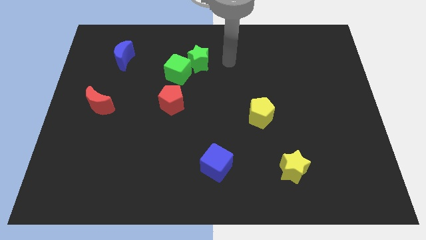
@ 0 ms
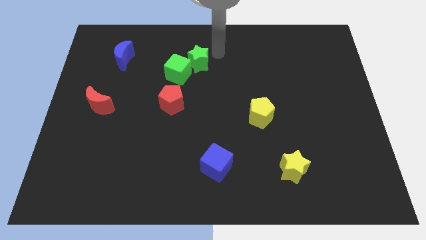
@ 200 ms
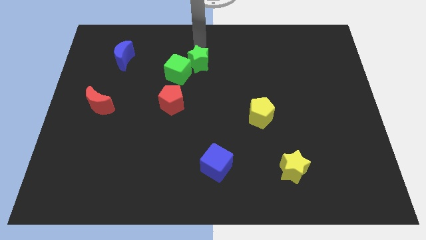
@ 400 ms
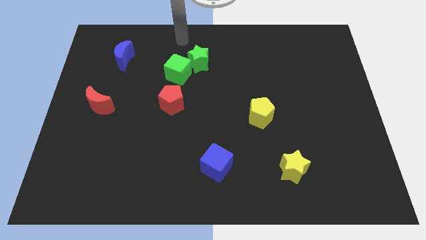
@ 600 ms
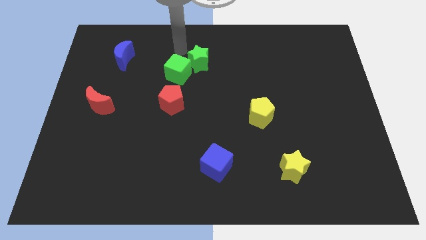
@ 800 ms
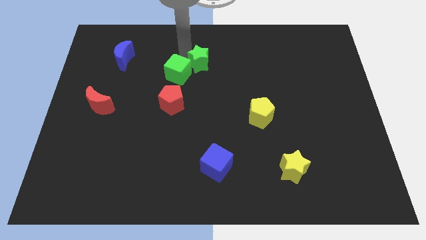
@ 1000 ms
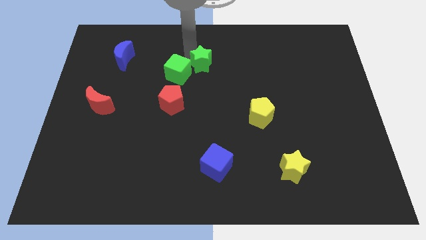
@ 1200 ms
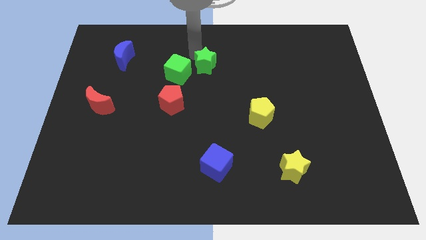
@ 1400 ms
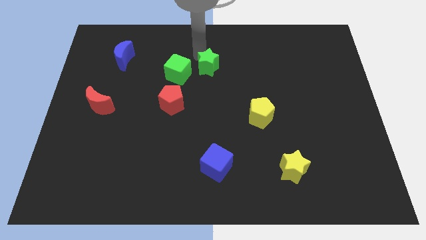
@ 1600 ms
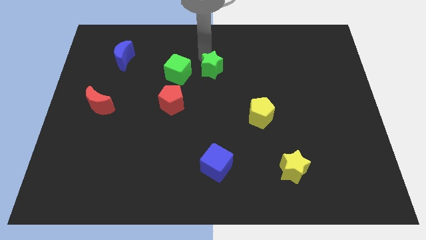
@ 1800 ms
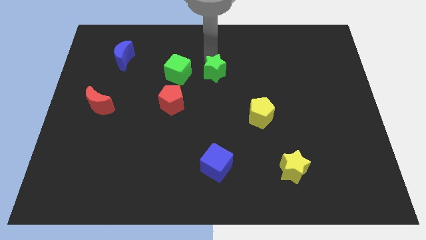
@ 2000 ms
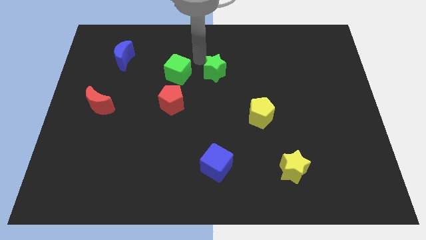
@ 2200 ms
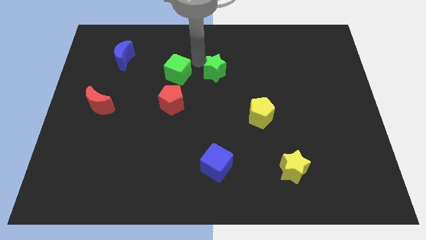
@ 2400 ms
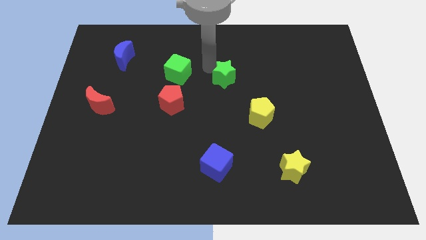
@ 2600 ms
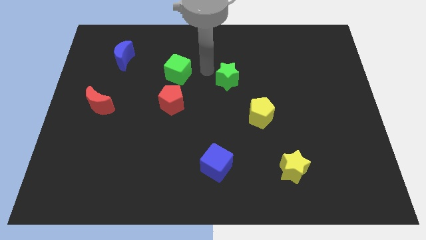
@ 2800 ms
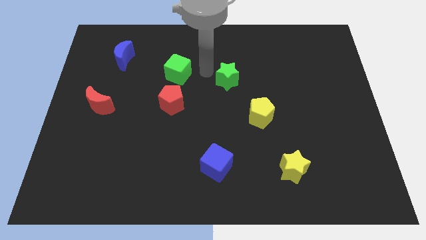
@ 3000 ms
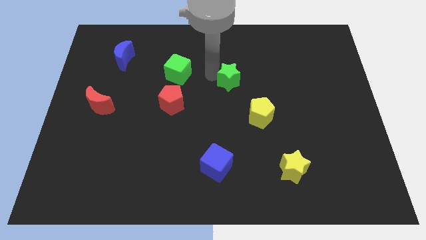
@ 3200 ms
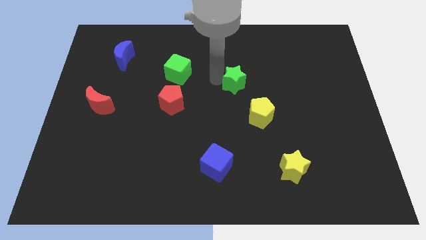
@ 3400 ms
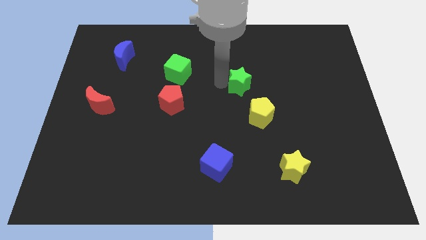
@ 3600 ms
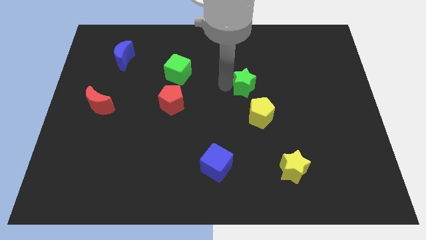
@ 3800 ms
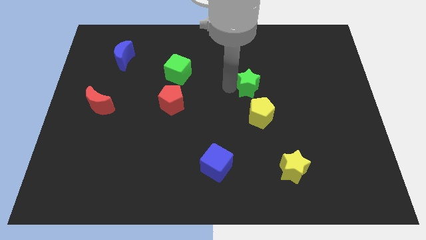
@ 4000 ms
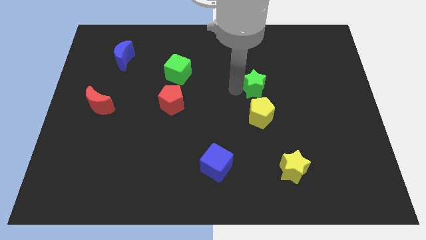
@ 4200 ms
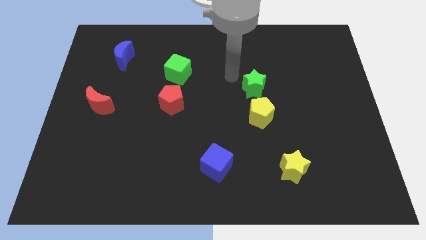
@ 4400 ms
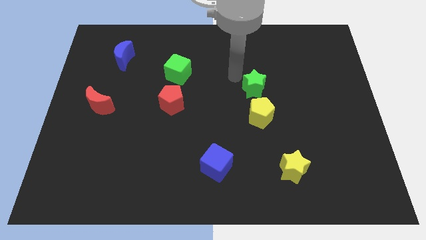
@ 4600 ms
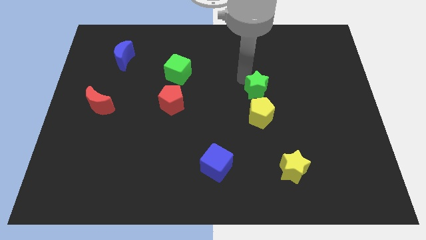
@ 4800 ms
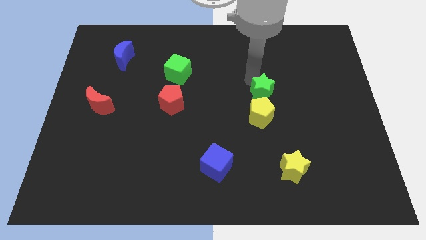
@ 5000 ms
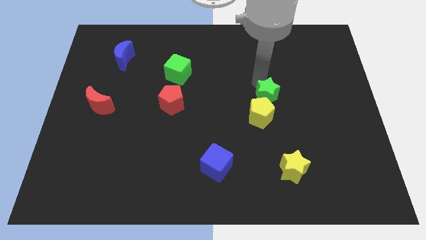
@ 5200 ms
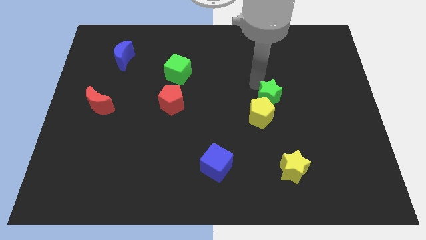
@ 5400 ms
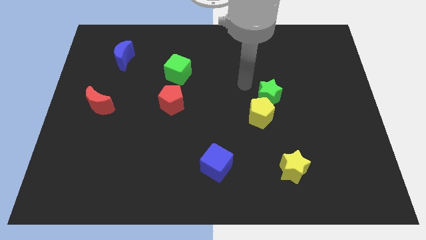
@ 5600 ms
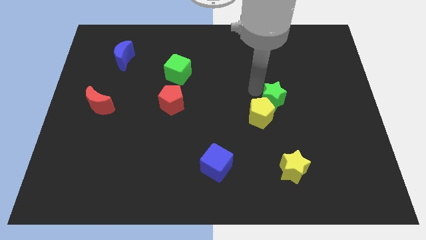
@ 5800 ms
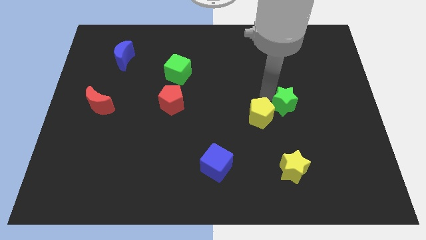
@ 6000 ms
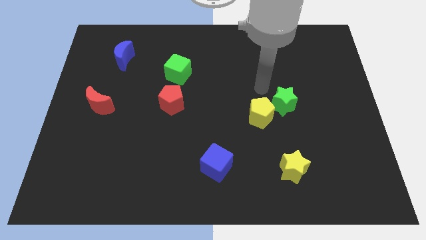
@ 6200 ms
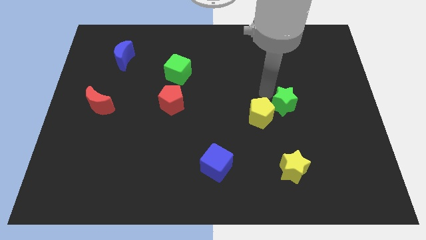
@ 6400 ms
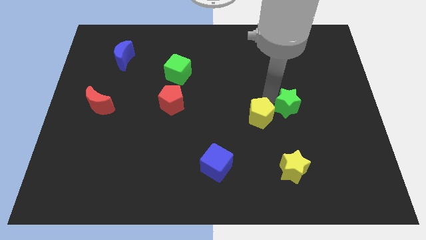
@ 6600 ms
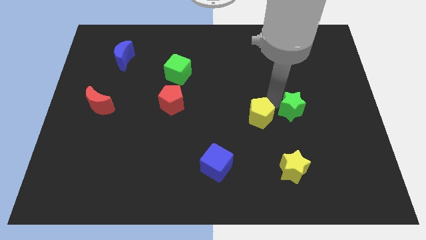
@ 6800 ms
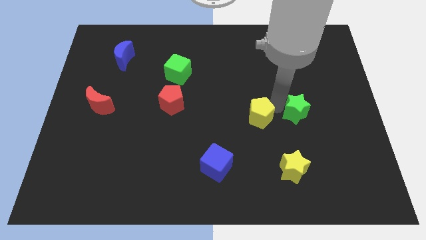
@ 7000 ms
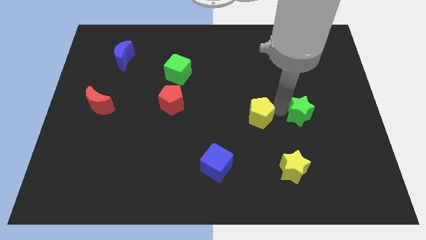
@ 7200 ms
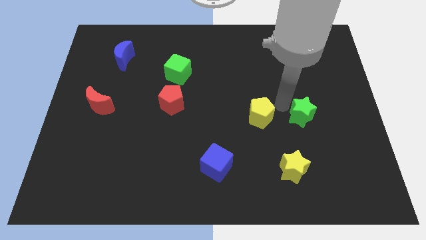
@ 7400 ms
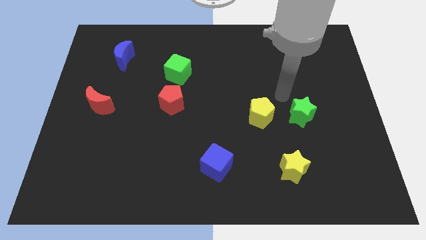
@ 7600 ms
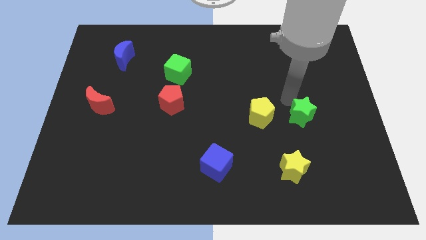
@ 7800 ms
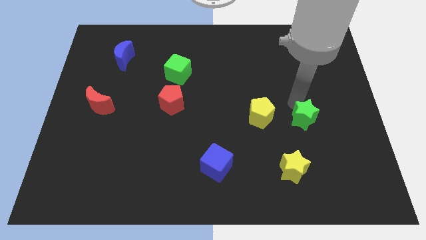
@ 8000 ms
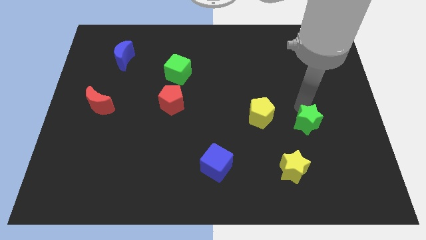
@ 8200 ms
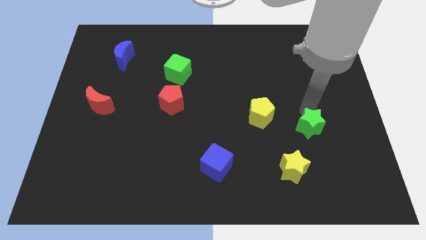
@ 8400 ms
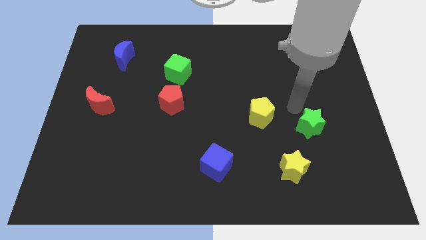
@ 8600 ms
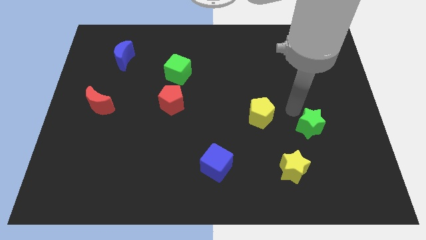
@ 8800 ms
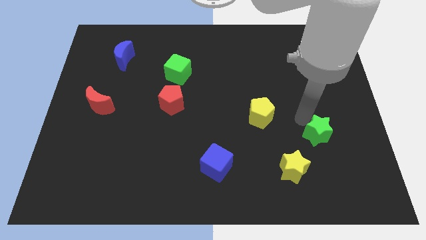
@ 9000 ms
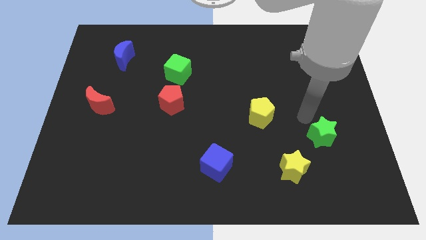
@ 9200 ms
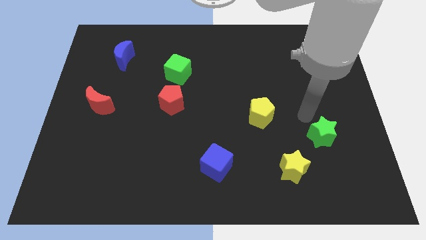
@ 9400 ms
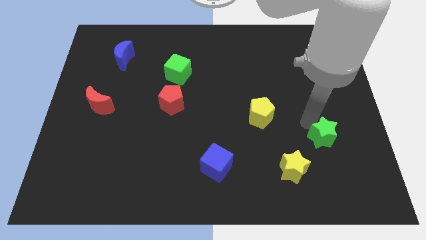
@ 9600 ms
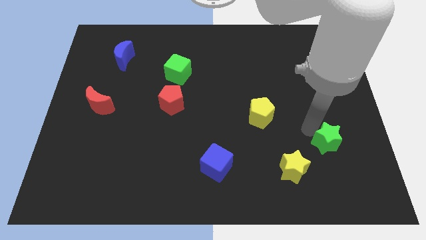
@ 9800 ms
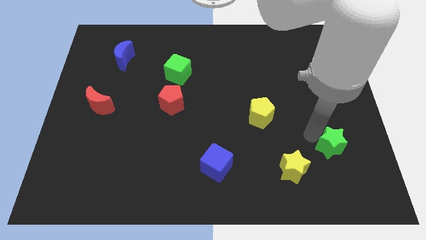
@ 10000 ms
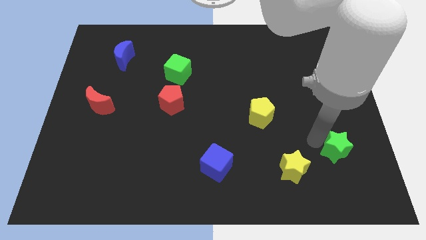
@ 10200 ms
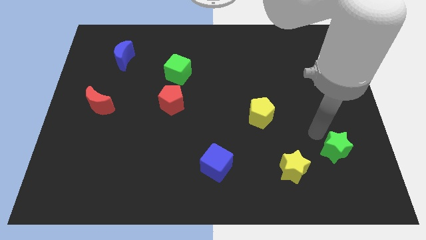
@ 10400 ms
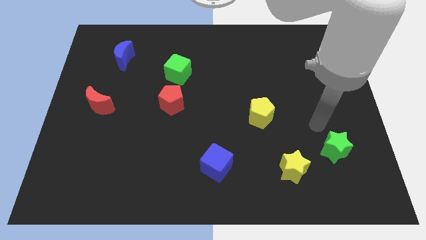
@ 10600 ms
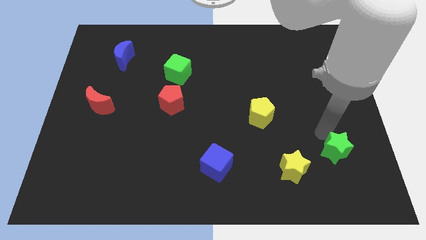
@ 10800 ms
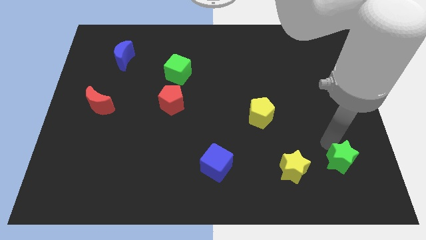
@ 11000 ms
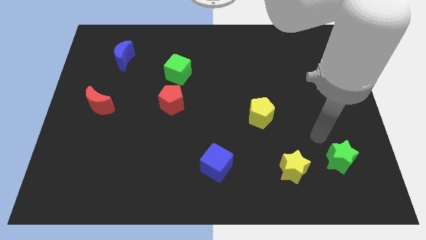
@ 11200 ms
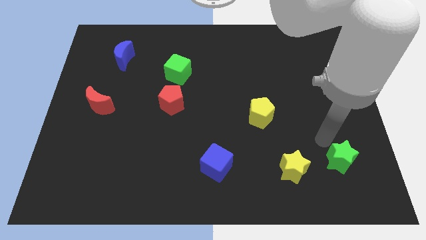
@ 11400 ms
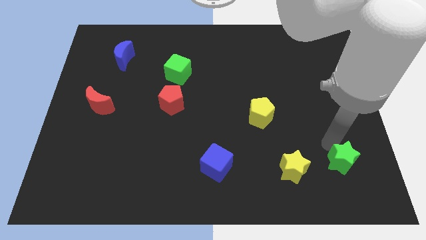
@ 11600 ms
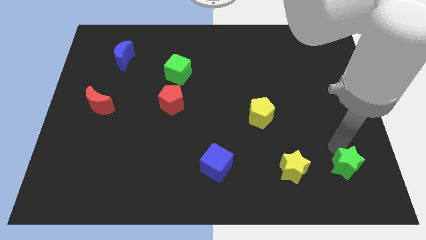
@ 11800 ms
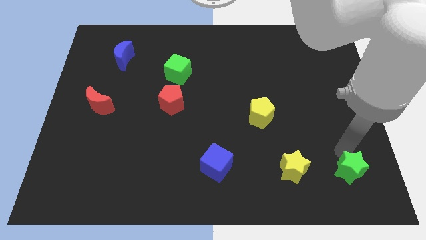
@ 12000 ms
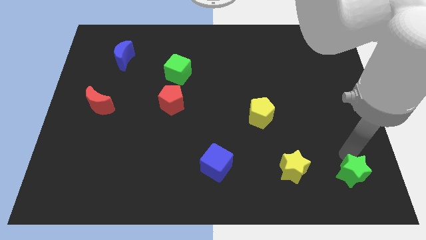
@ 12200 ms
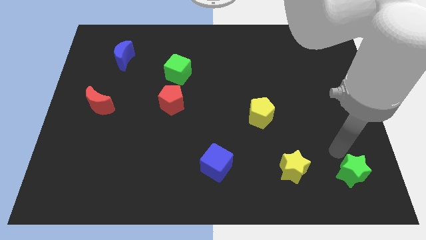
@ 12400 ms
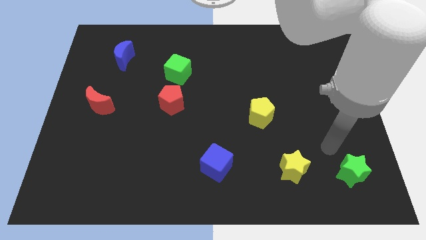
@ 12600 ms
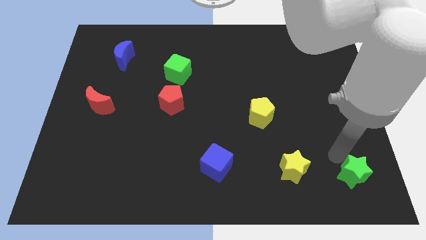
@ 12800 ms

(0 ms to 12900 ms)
move the green star to the lower right corner
